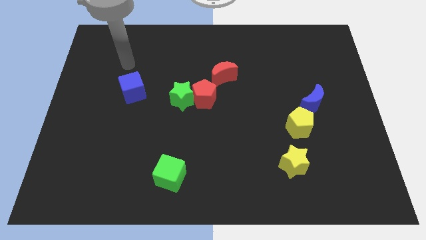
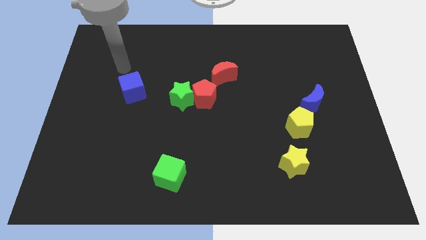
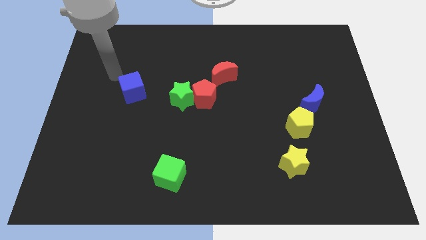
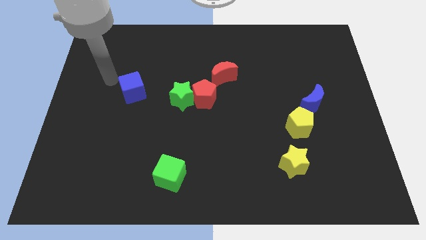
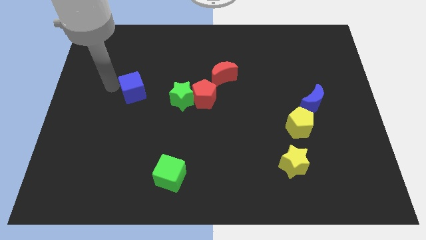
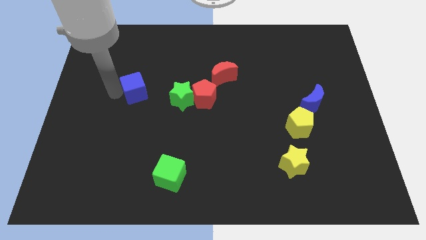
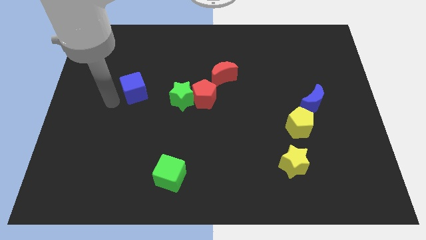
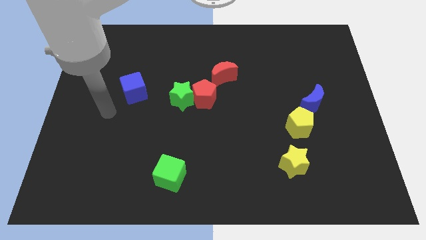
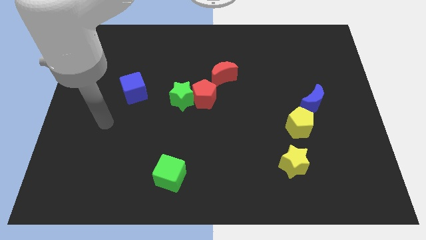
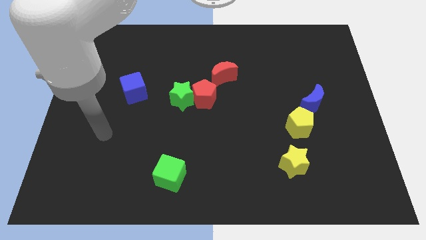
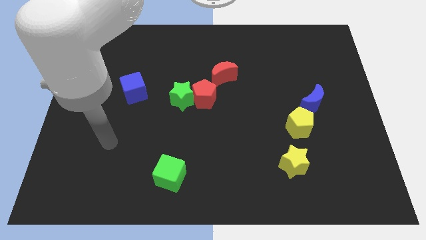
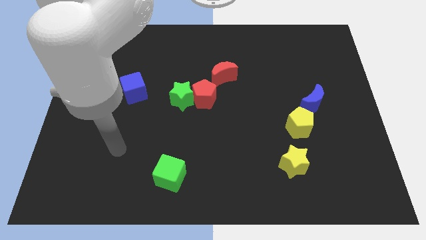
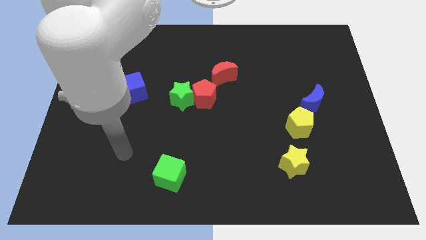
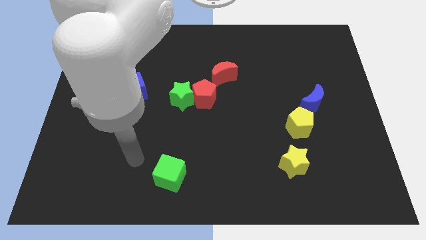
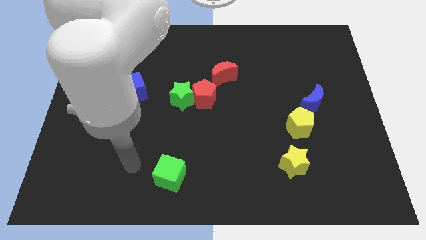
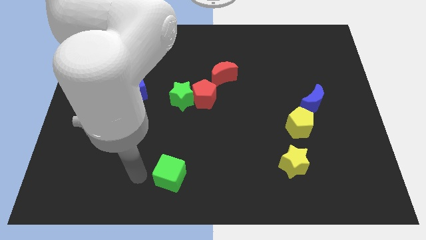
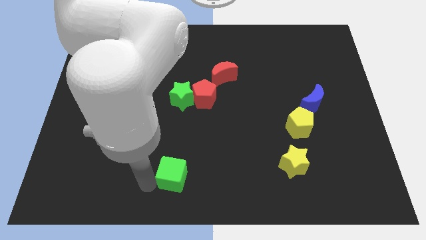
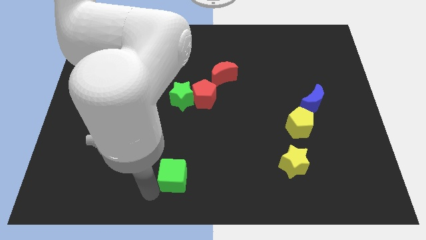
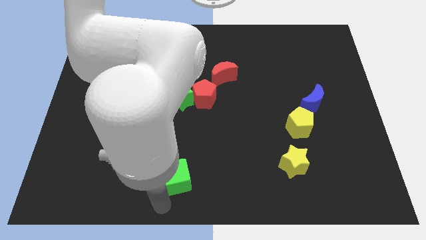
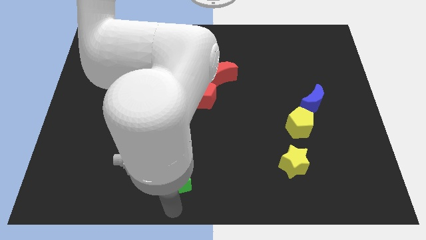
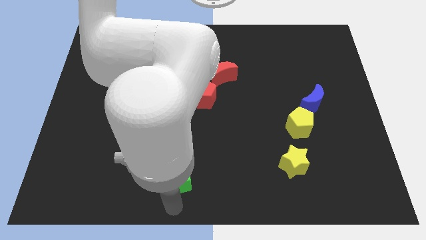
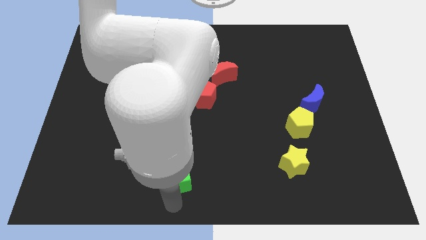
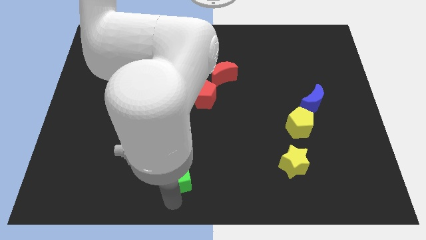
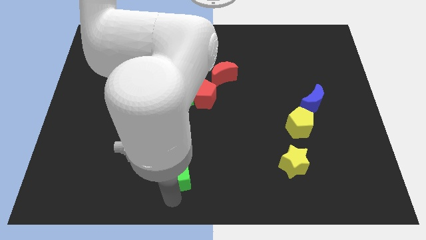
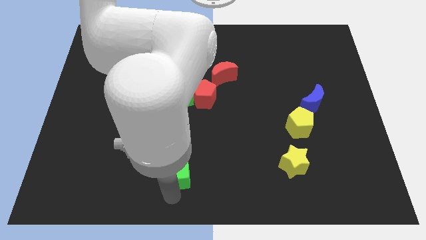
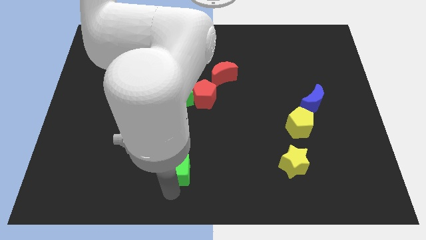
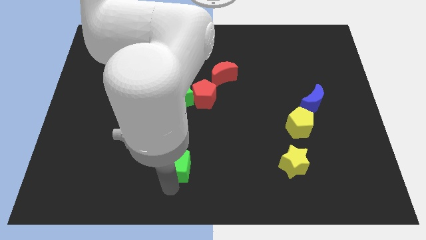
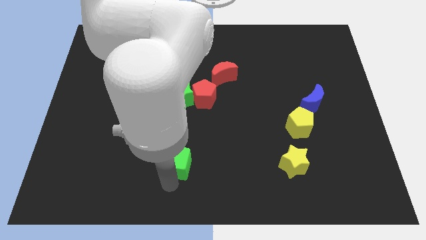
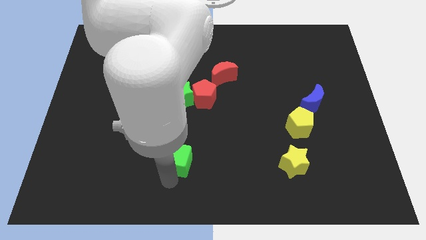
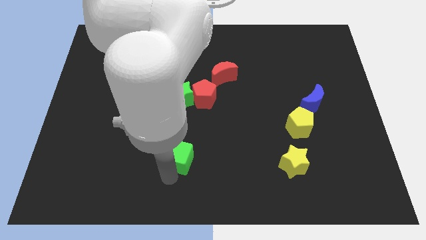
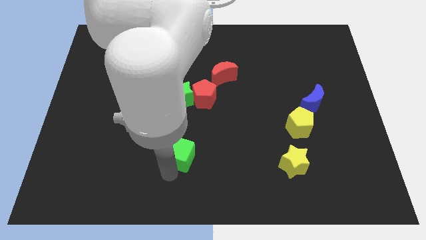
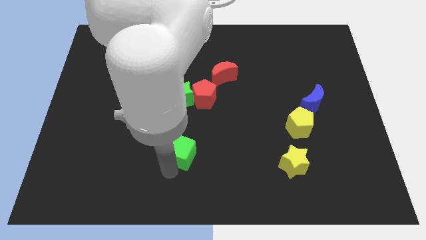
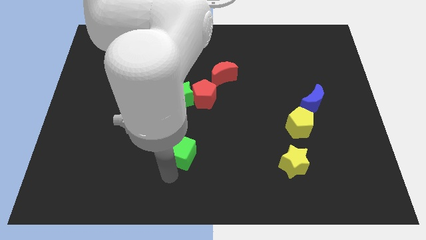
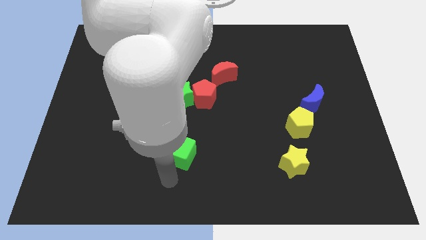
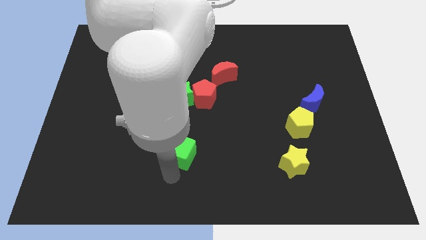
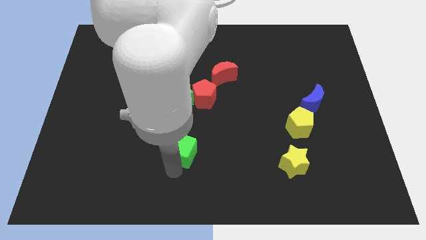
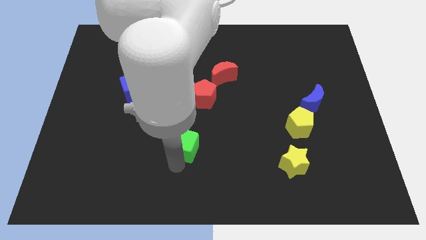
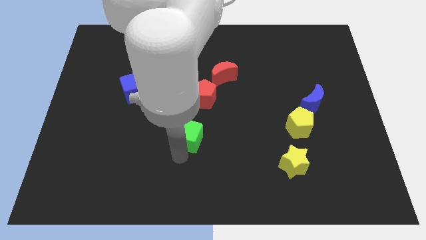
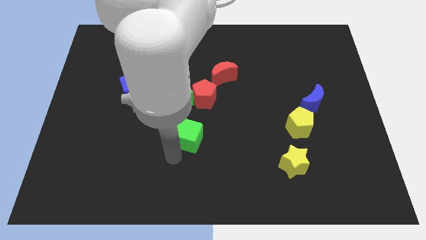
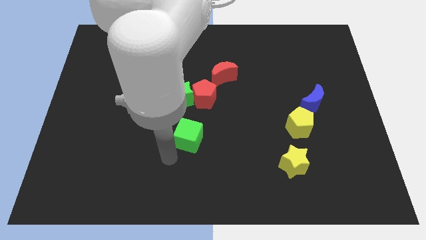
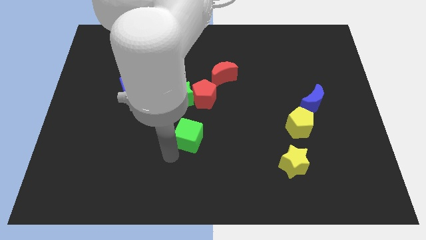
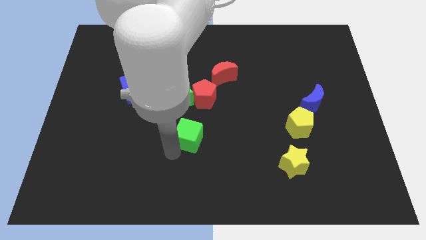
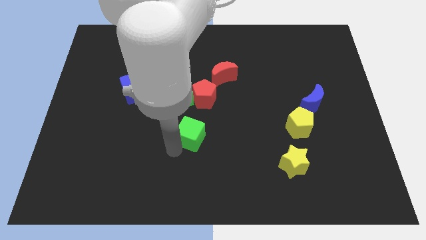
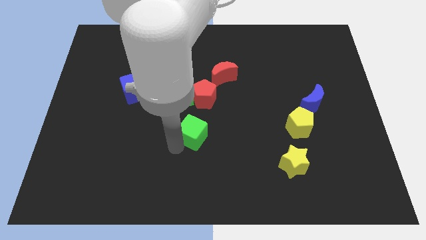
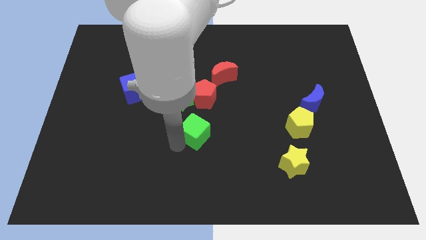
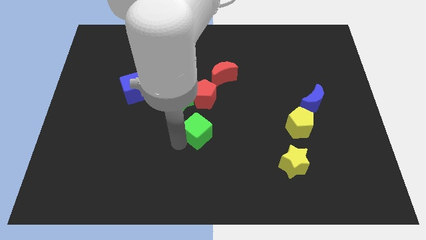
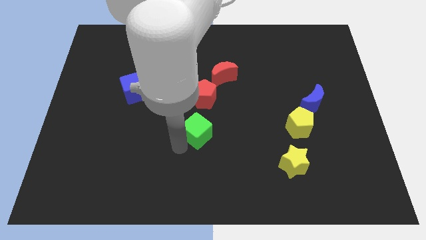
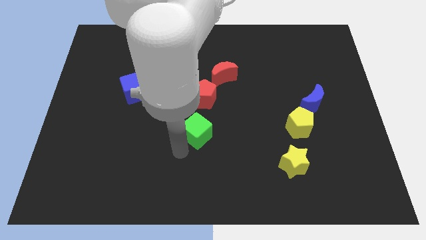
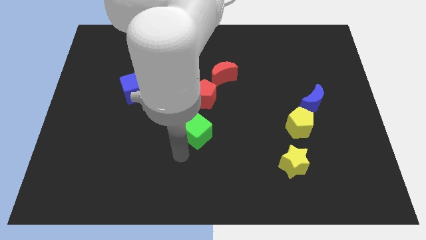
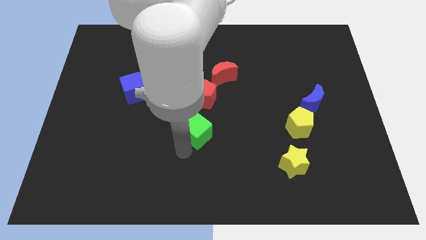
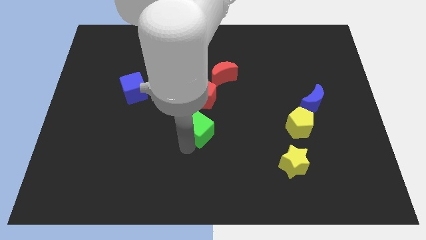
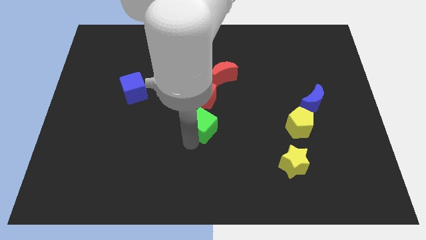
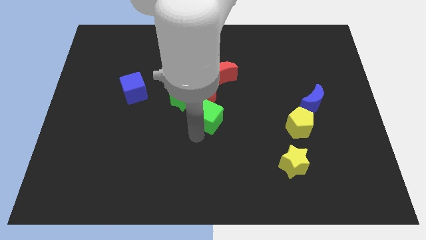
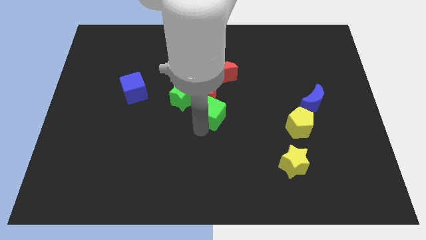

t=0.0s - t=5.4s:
push the green cube to the right of the green star

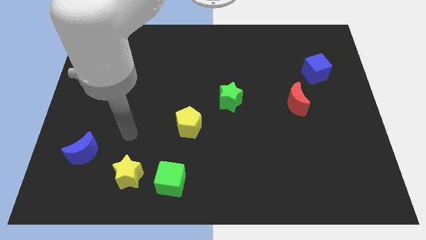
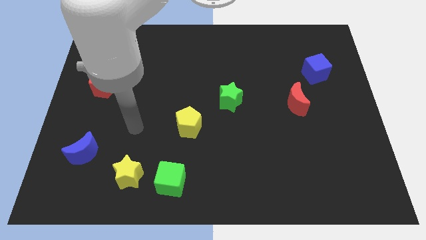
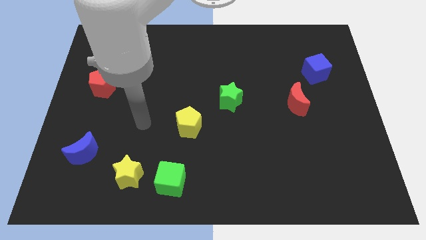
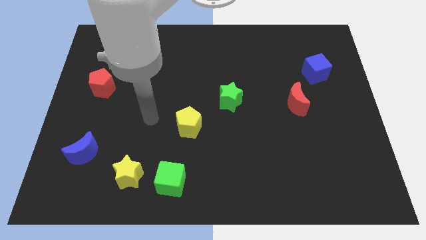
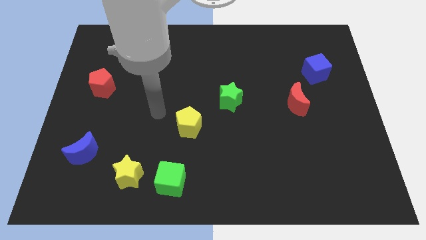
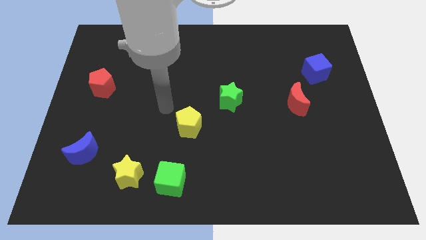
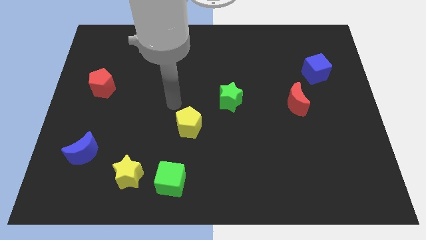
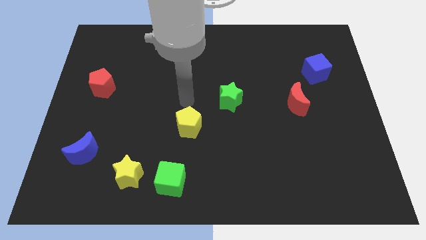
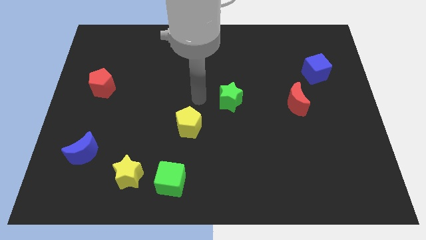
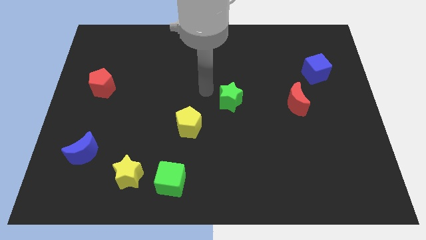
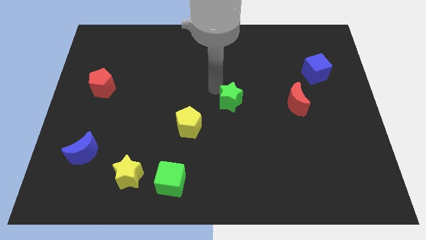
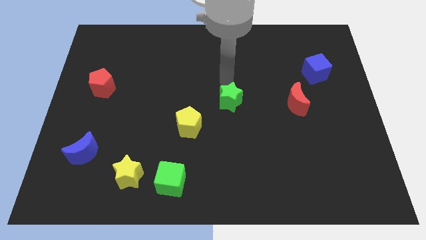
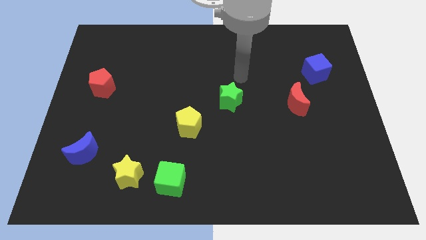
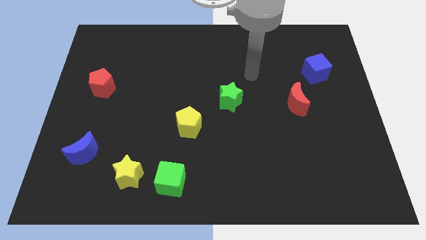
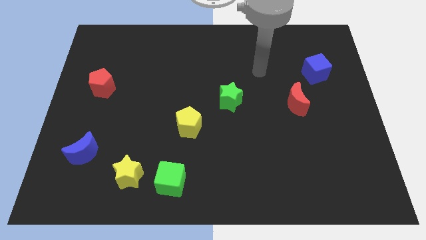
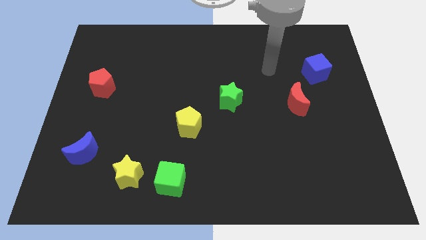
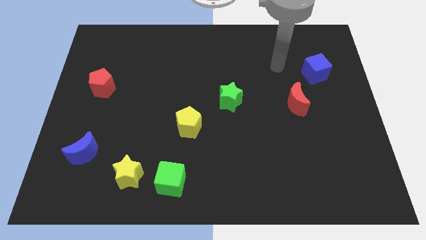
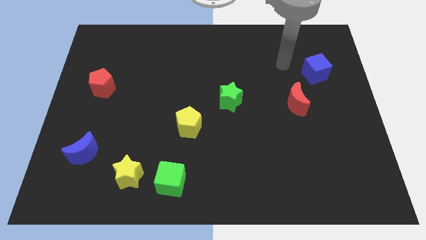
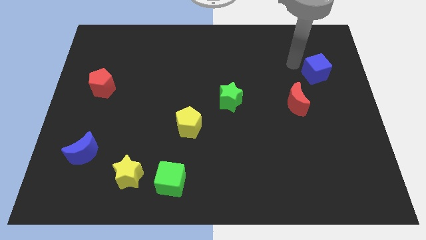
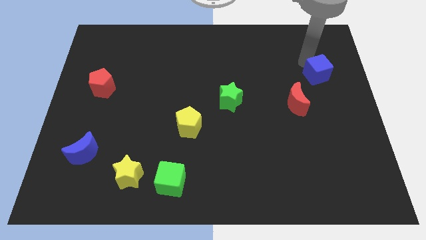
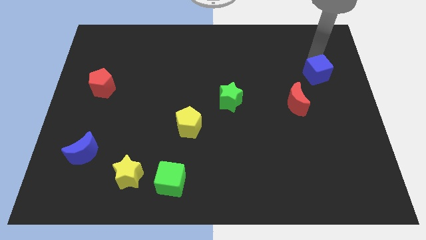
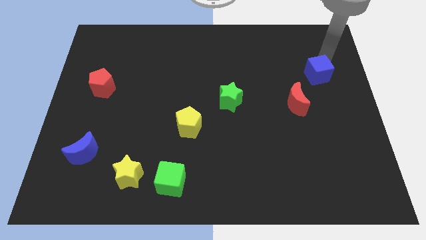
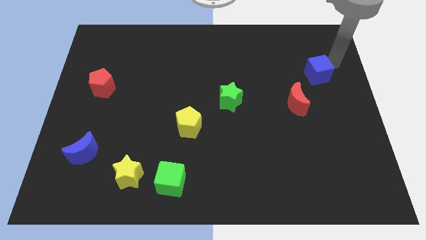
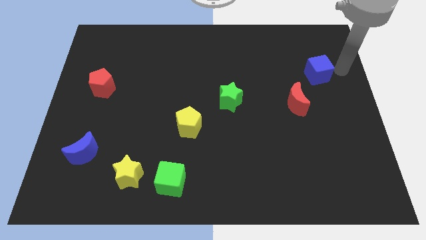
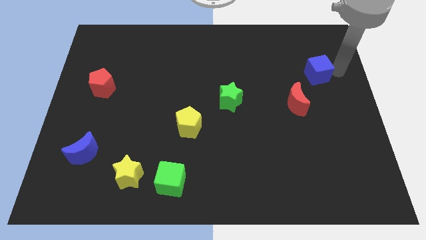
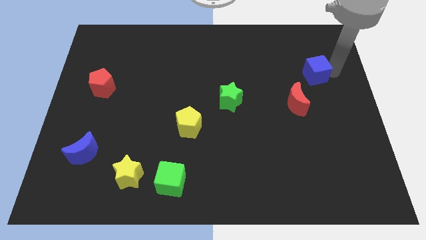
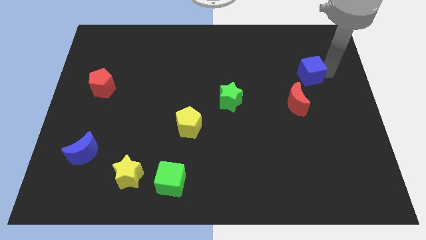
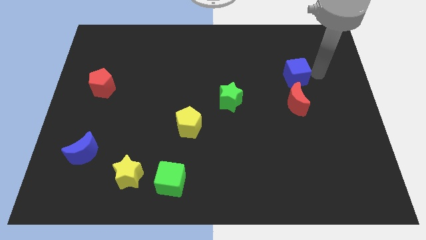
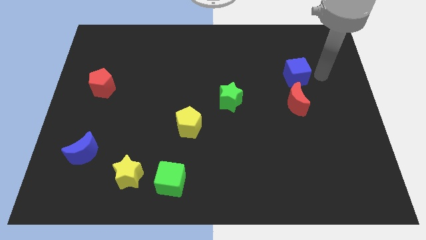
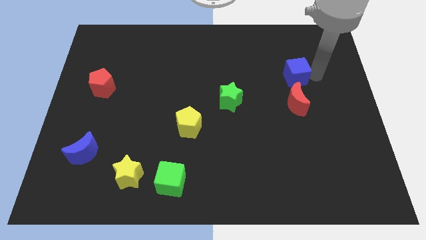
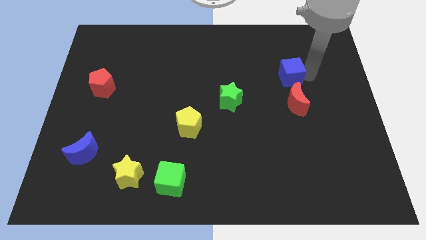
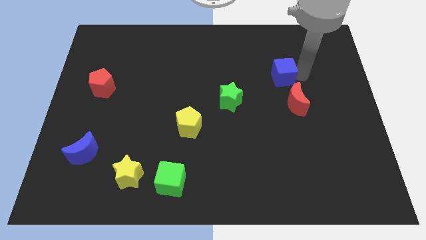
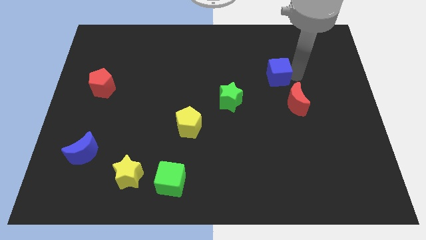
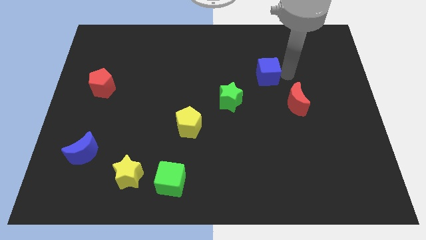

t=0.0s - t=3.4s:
slide the blue cube to the top right of the green star
